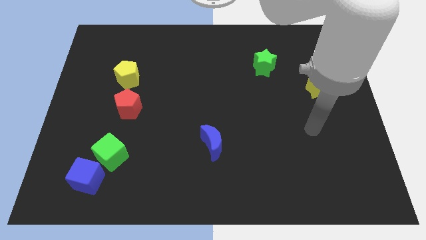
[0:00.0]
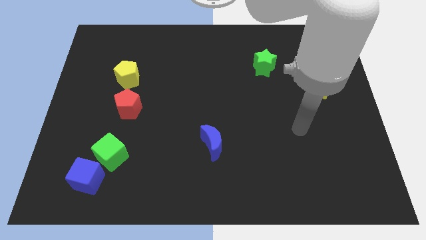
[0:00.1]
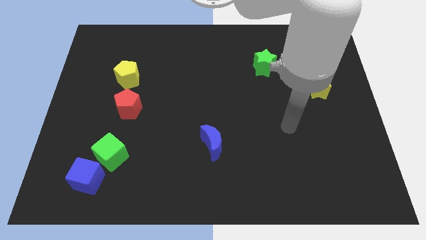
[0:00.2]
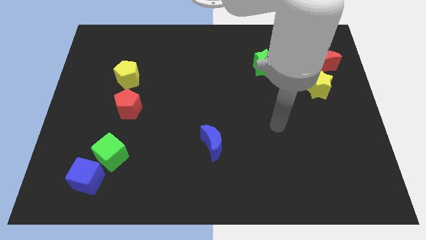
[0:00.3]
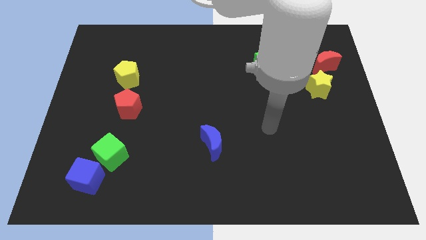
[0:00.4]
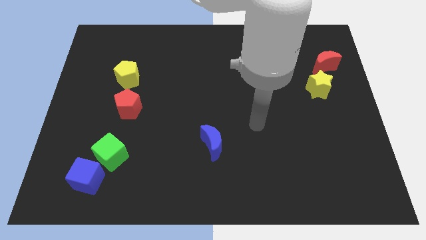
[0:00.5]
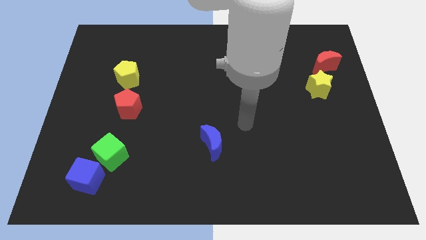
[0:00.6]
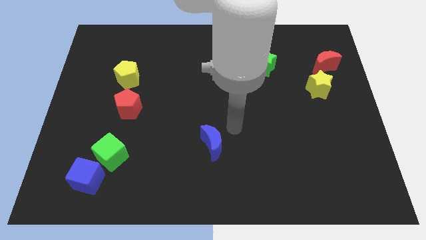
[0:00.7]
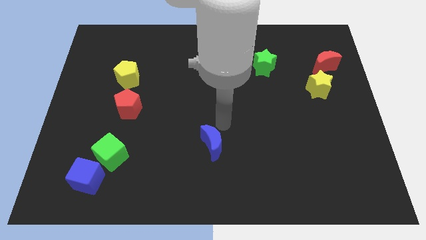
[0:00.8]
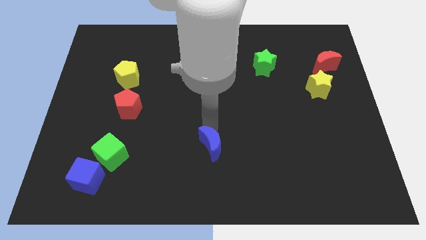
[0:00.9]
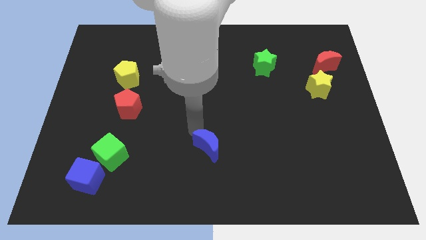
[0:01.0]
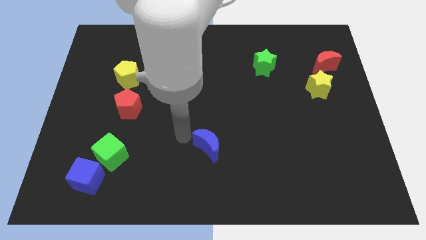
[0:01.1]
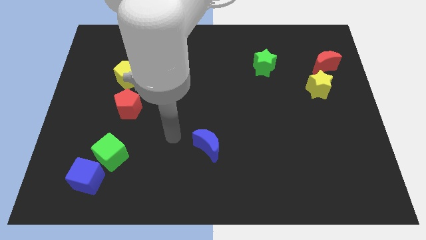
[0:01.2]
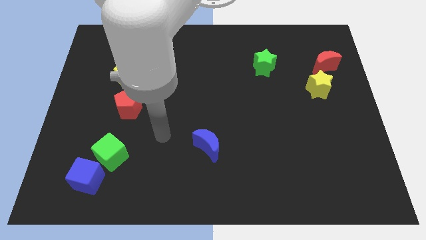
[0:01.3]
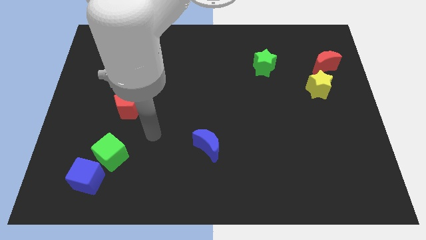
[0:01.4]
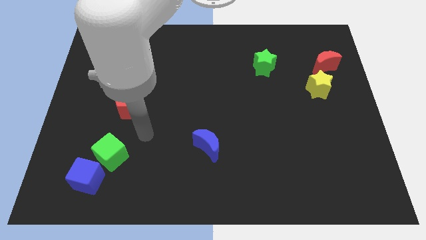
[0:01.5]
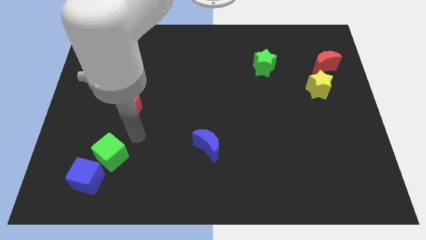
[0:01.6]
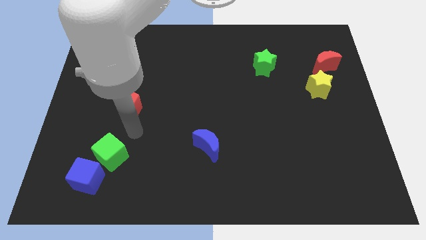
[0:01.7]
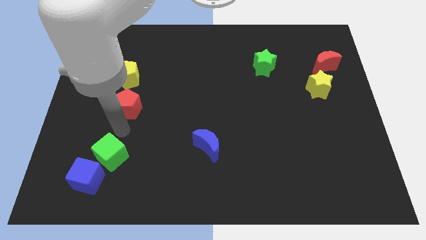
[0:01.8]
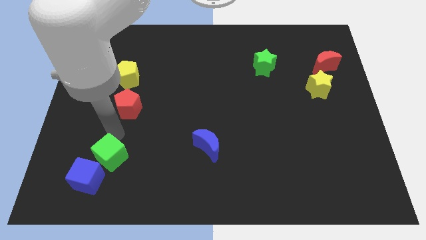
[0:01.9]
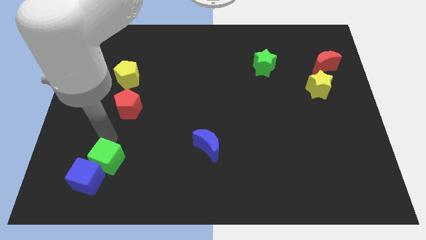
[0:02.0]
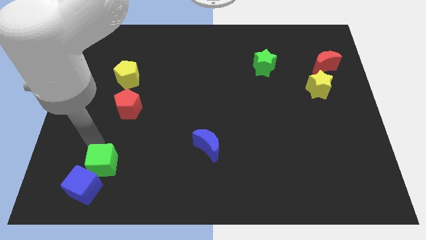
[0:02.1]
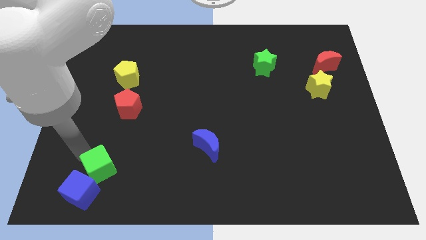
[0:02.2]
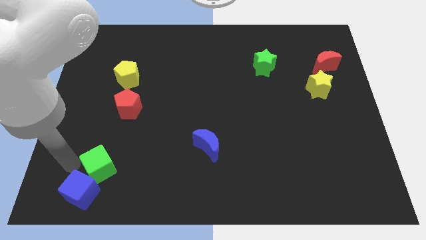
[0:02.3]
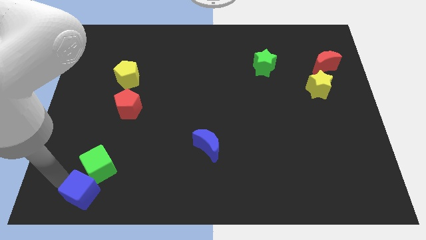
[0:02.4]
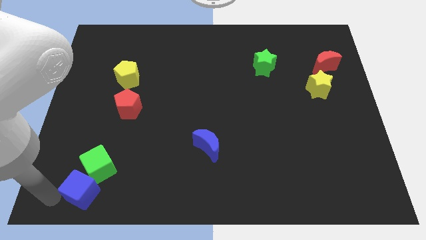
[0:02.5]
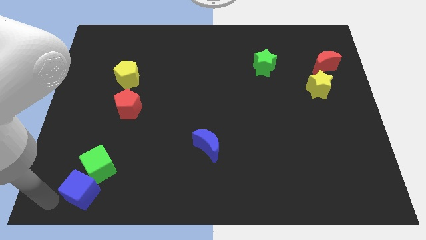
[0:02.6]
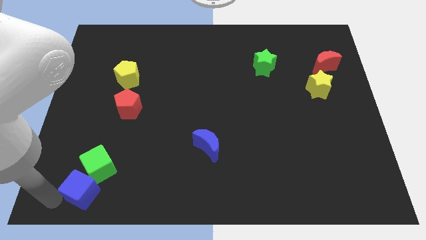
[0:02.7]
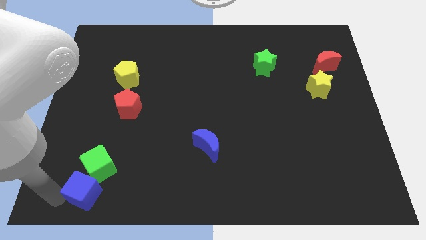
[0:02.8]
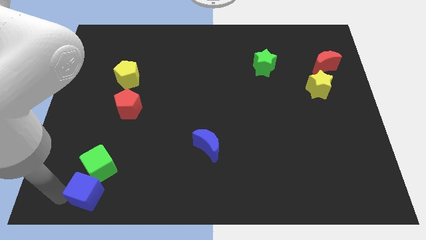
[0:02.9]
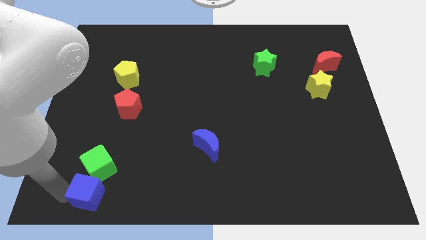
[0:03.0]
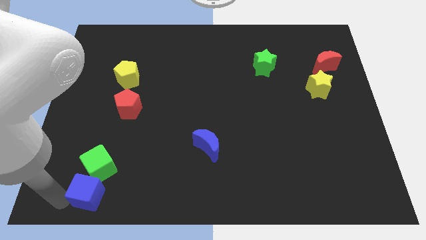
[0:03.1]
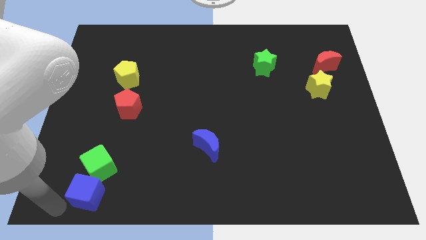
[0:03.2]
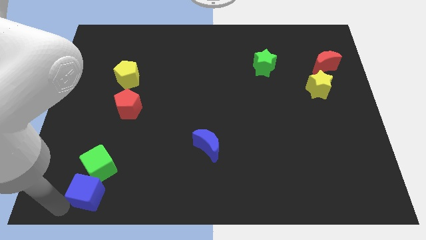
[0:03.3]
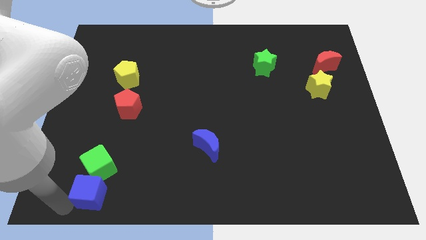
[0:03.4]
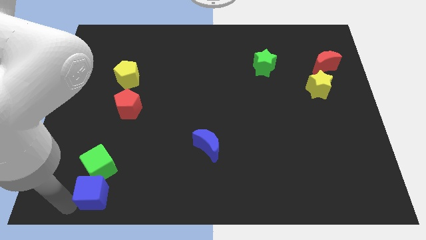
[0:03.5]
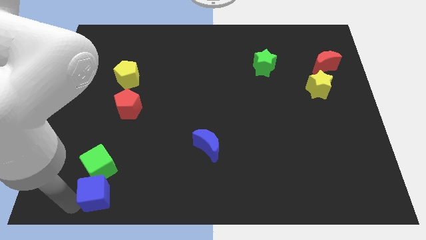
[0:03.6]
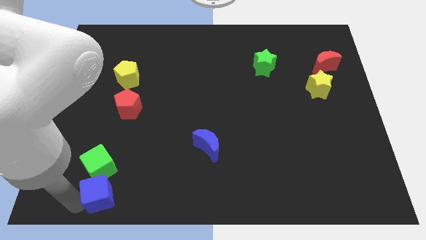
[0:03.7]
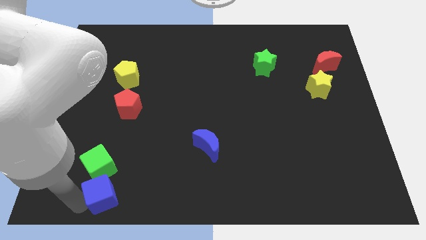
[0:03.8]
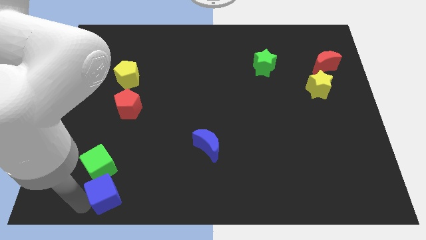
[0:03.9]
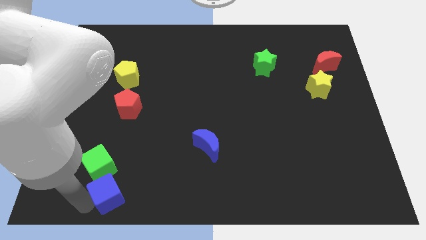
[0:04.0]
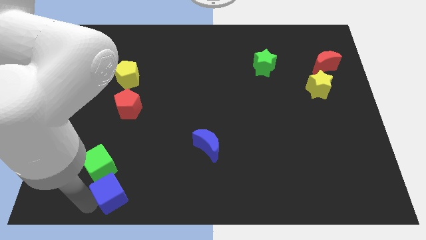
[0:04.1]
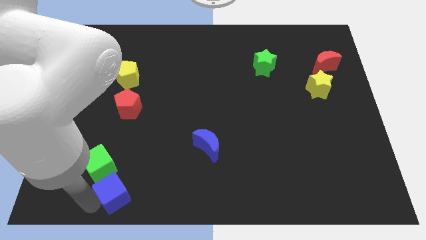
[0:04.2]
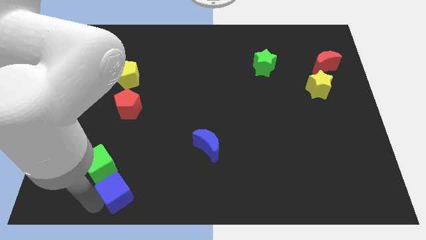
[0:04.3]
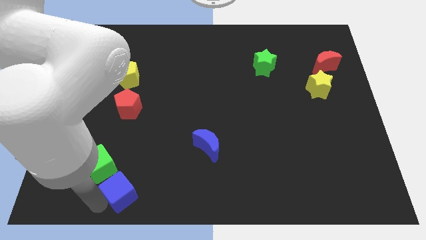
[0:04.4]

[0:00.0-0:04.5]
move the blue cube somewhat to the right

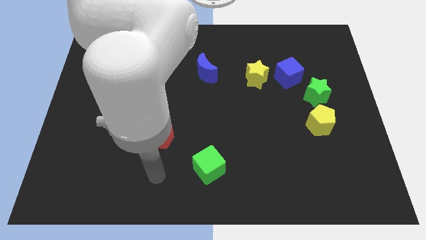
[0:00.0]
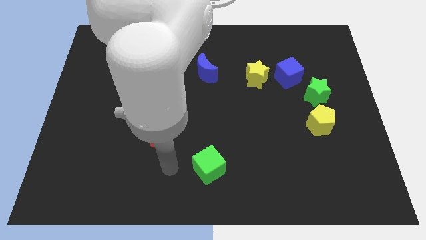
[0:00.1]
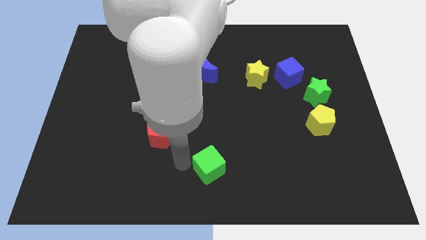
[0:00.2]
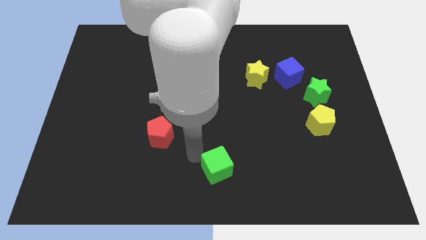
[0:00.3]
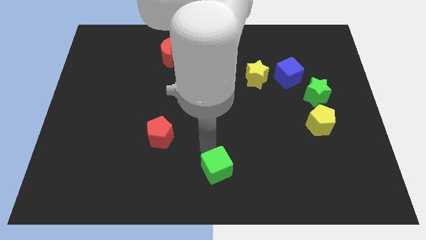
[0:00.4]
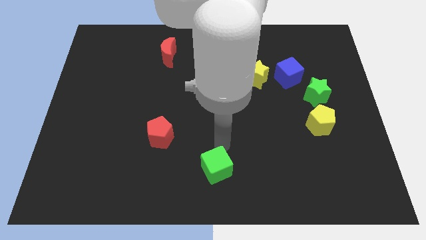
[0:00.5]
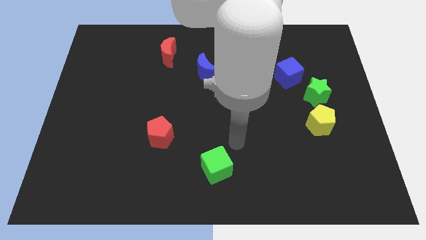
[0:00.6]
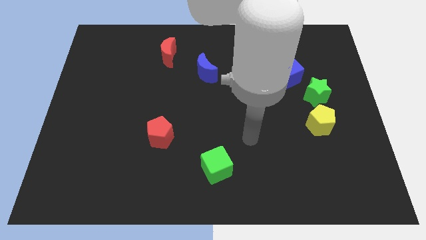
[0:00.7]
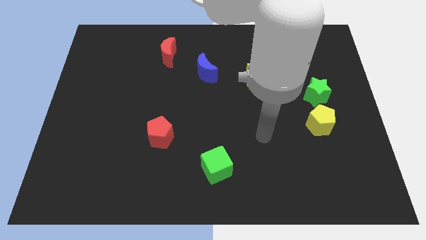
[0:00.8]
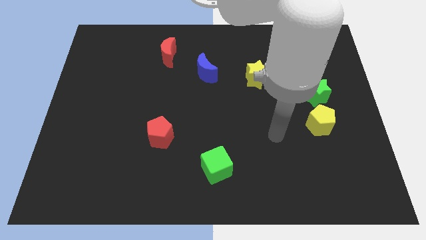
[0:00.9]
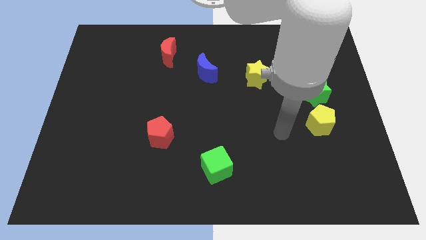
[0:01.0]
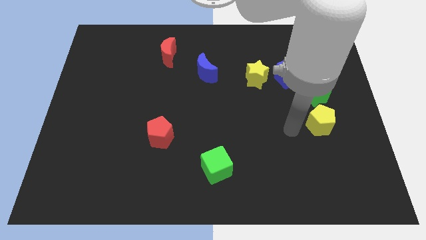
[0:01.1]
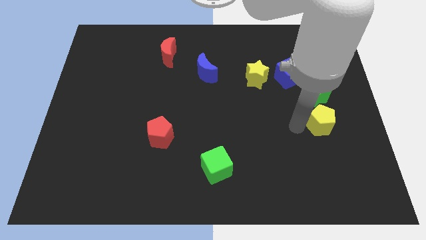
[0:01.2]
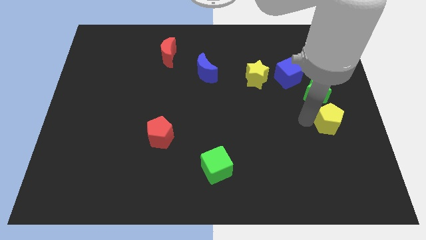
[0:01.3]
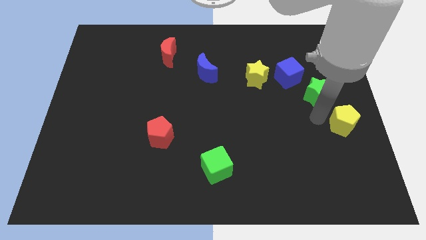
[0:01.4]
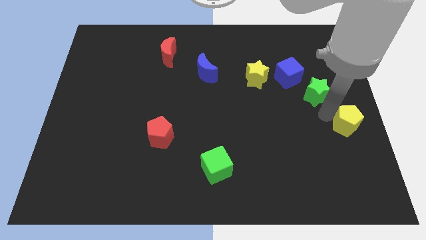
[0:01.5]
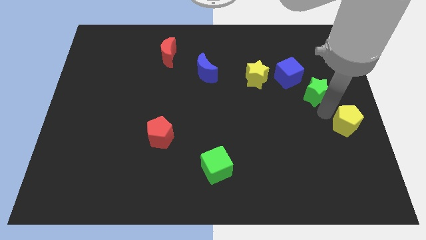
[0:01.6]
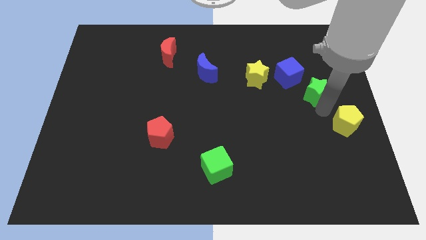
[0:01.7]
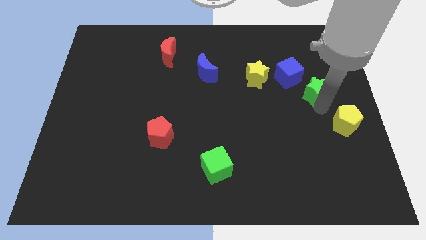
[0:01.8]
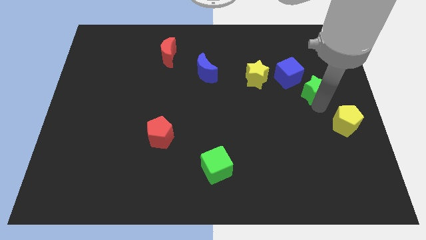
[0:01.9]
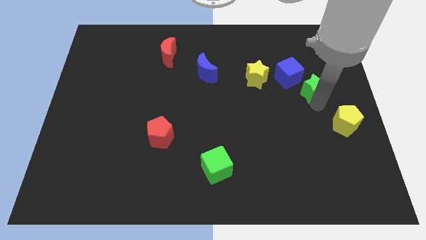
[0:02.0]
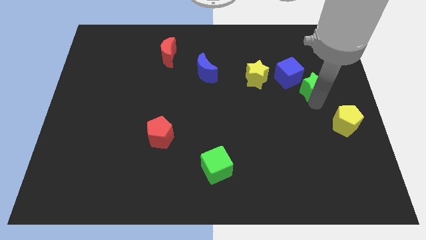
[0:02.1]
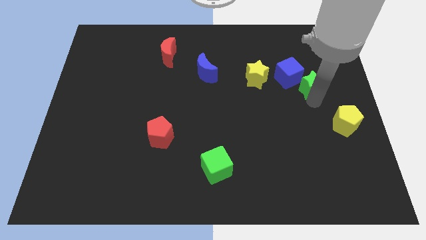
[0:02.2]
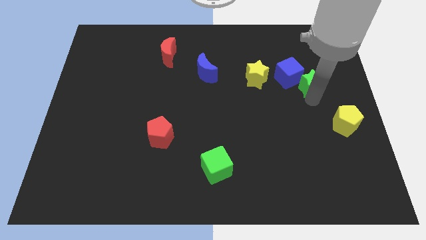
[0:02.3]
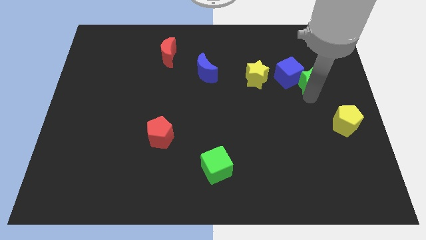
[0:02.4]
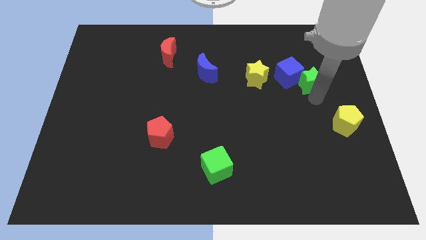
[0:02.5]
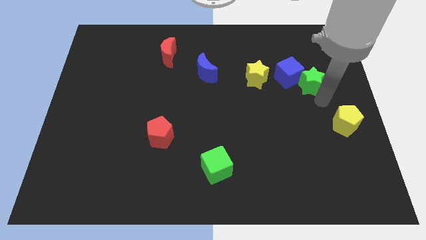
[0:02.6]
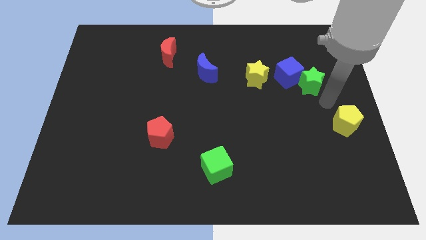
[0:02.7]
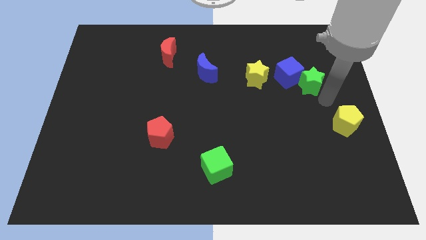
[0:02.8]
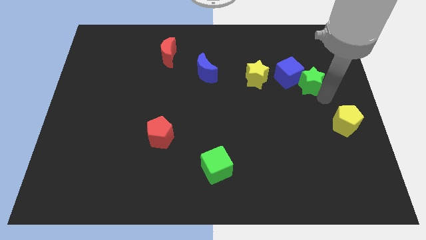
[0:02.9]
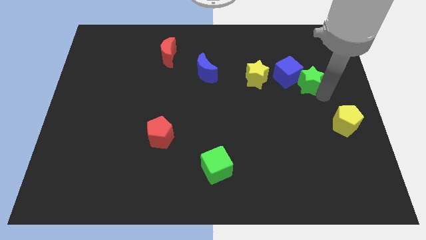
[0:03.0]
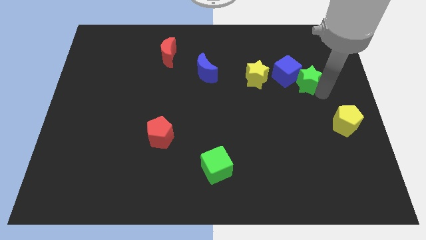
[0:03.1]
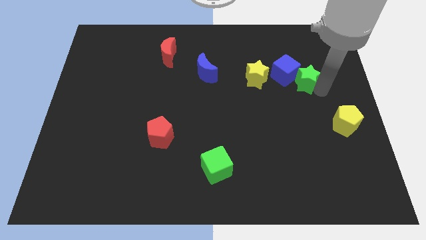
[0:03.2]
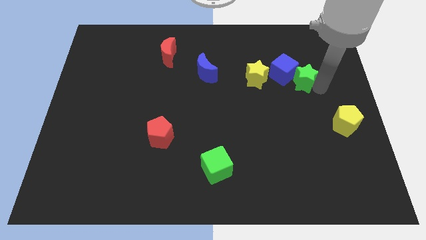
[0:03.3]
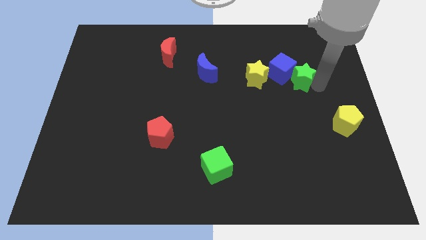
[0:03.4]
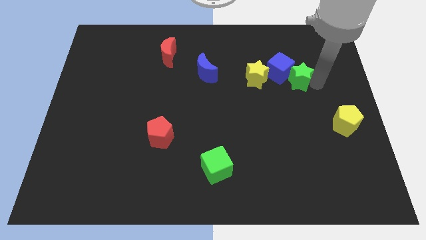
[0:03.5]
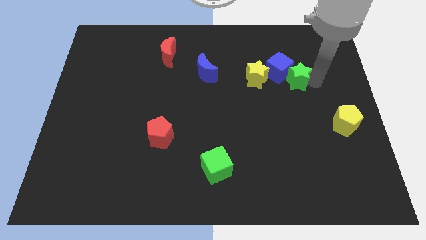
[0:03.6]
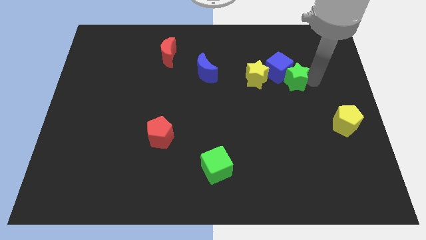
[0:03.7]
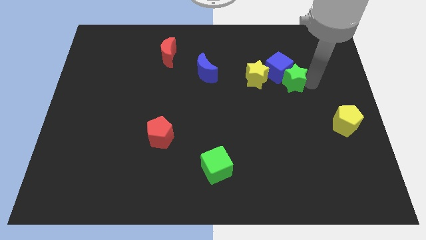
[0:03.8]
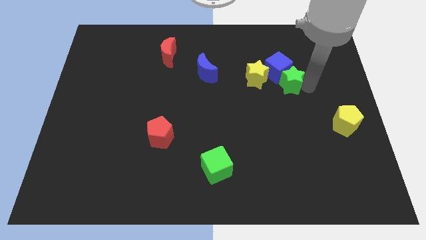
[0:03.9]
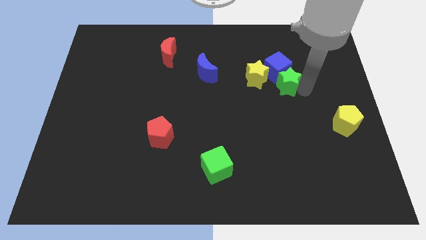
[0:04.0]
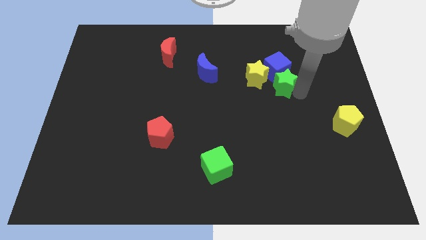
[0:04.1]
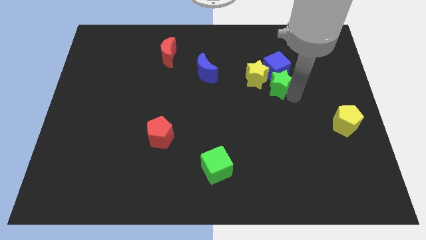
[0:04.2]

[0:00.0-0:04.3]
push the green star upwards and then to the left a bit
